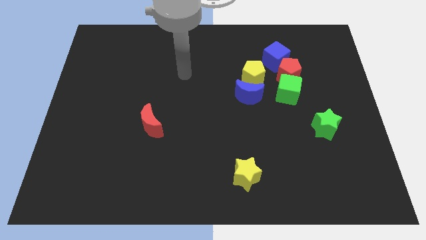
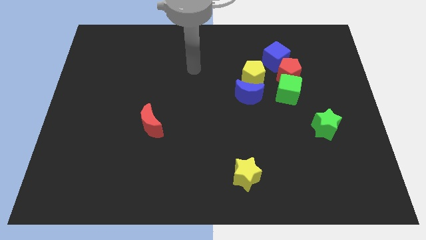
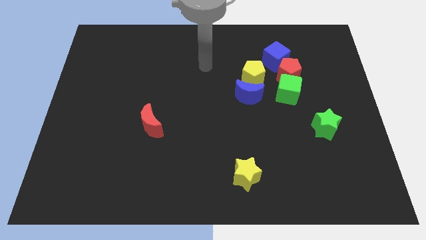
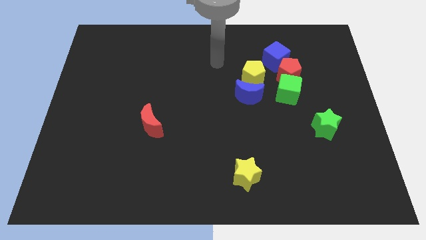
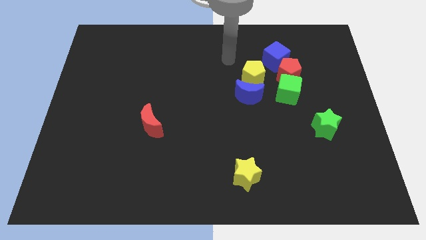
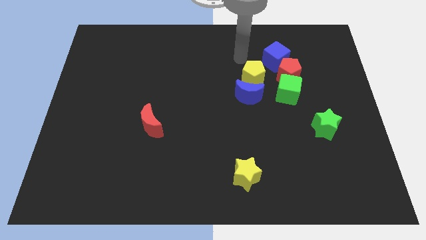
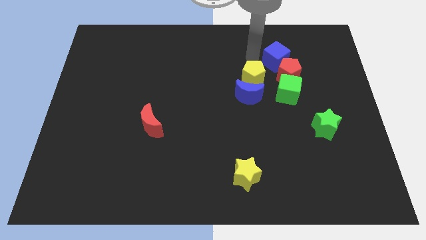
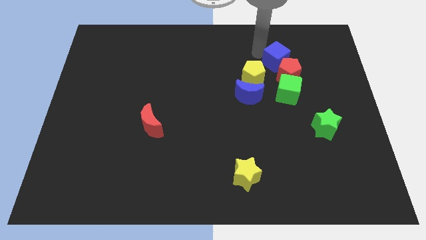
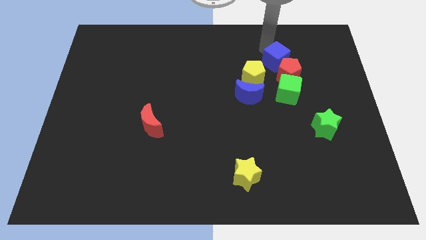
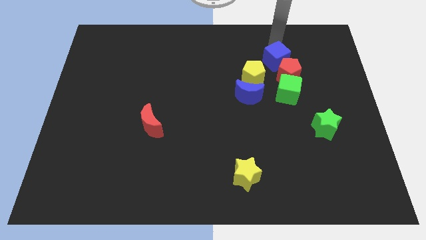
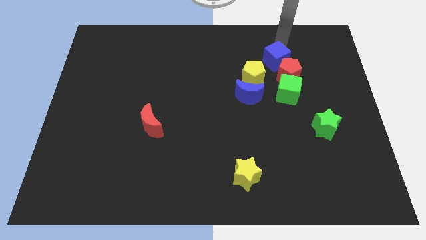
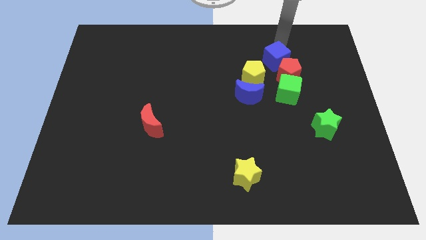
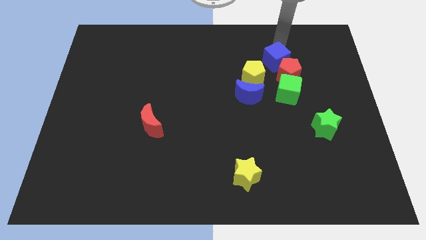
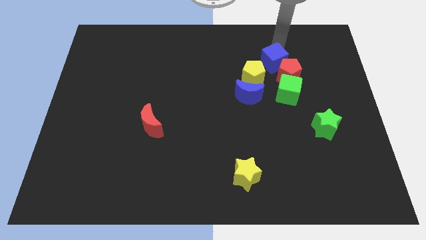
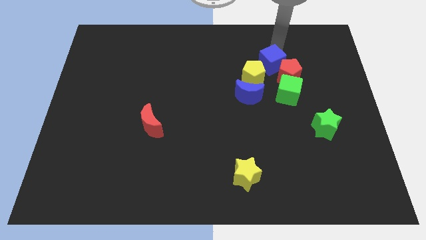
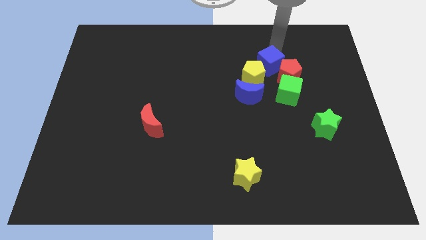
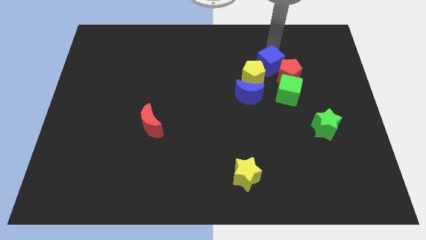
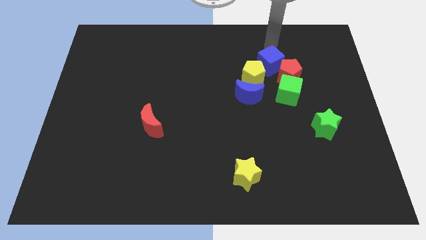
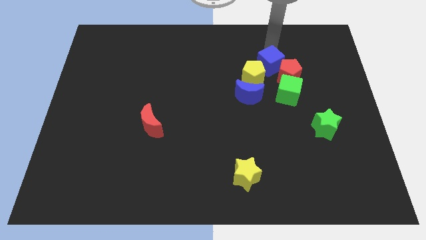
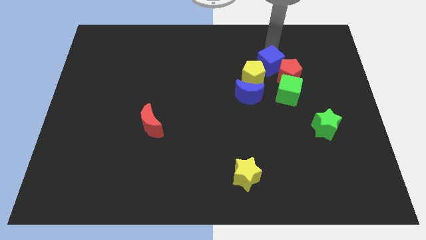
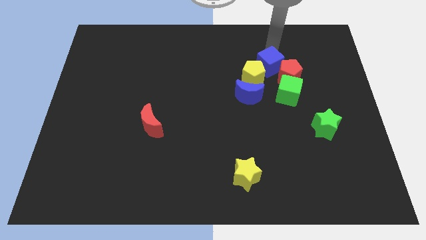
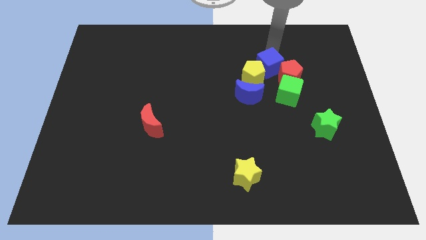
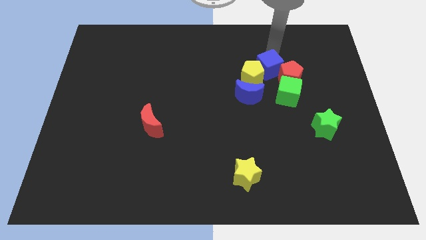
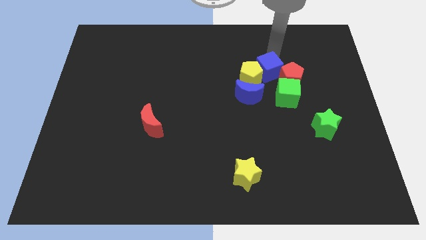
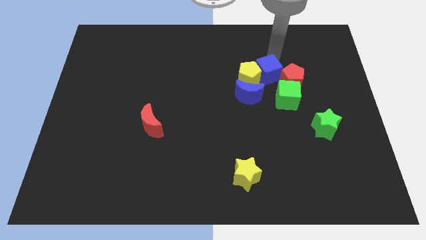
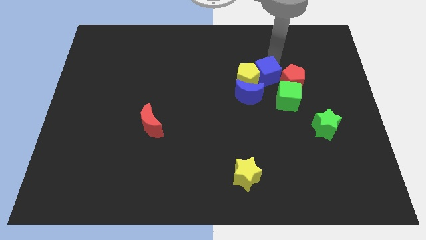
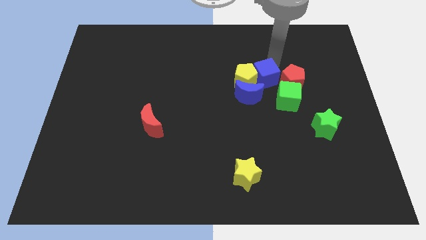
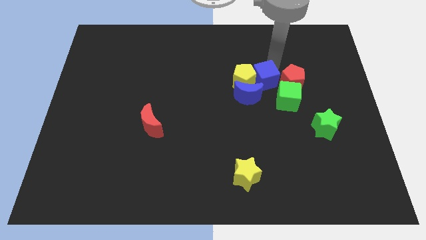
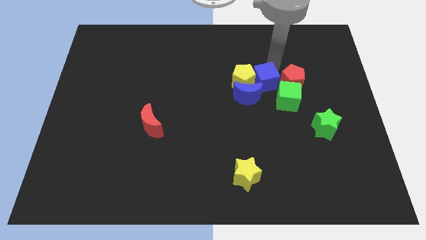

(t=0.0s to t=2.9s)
slide the blue cube somewhat down

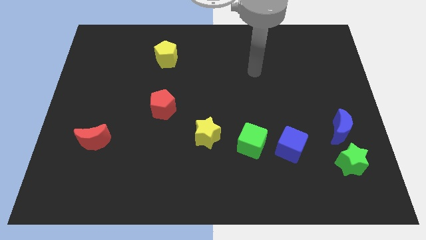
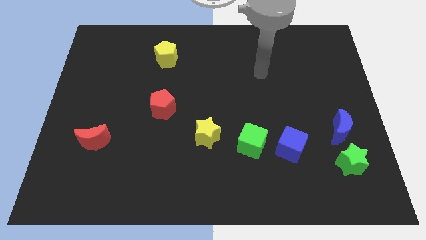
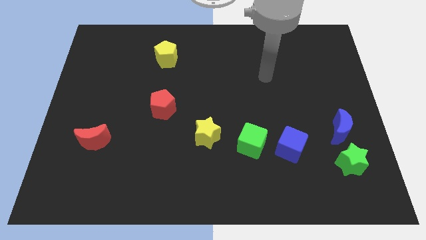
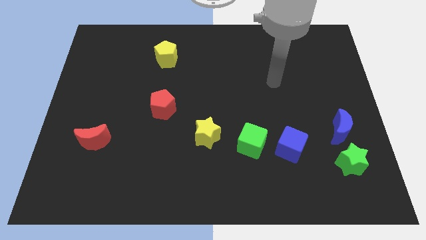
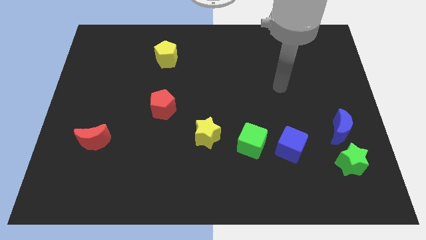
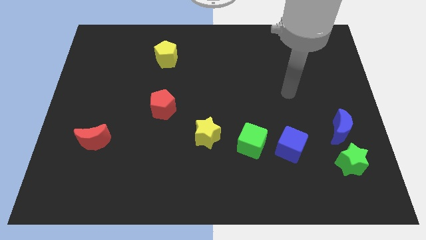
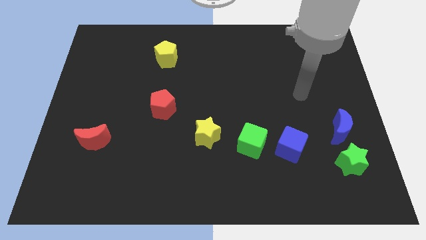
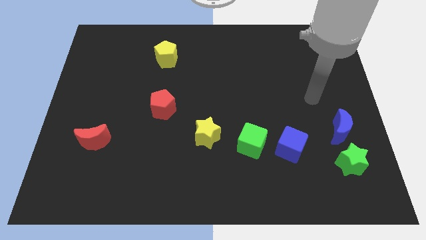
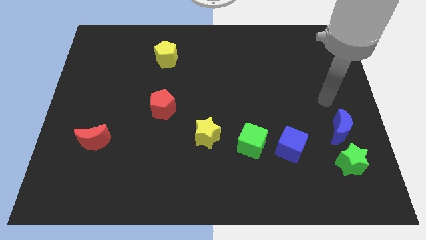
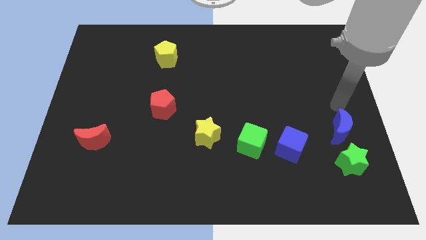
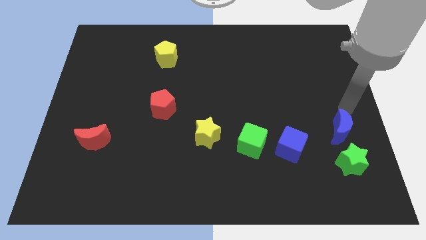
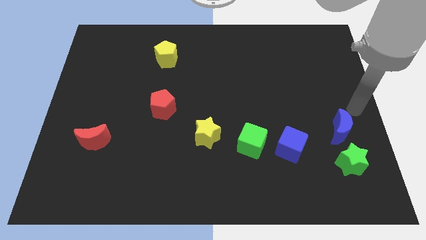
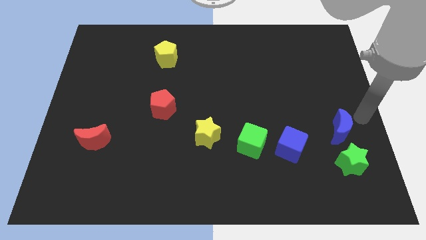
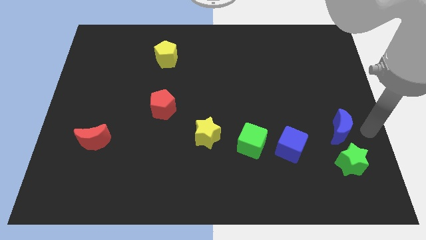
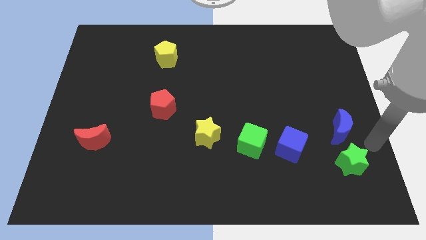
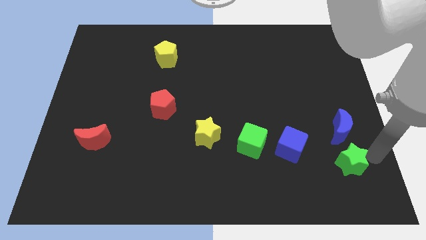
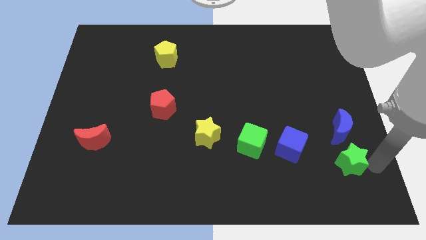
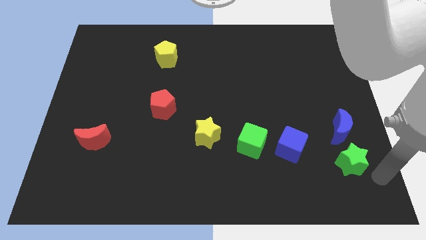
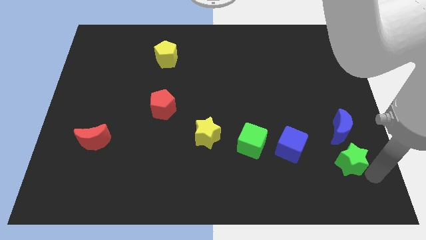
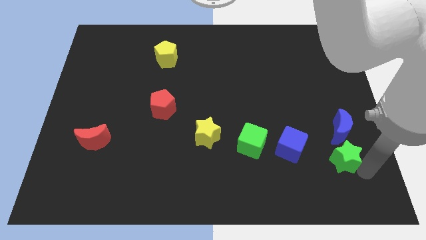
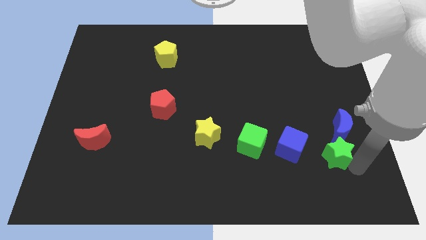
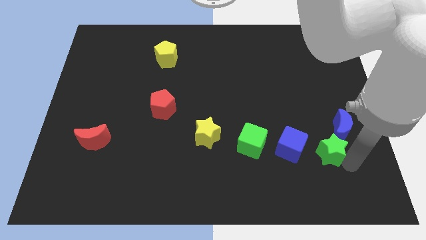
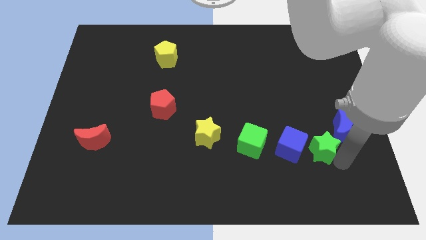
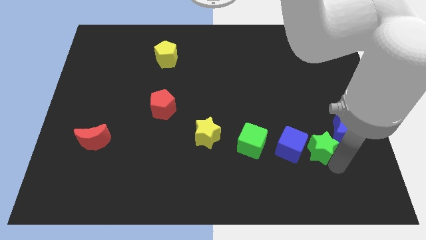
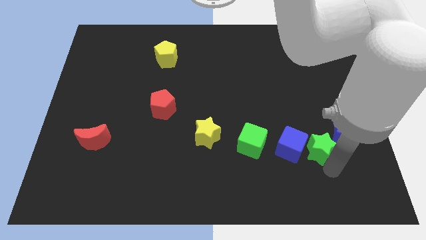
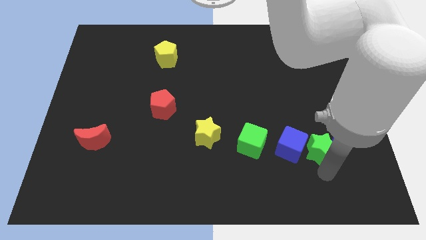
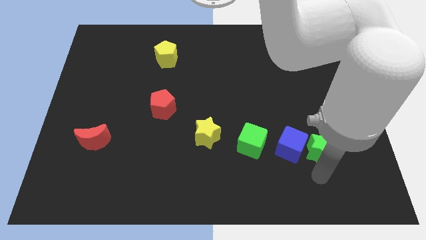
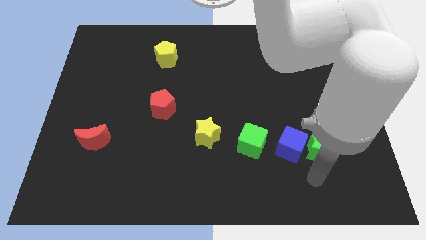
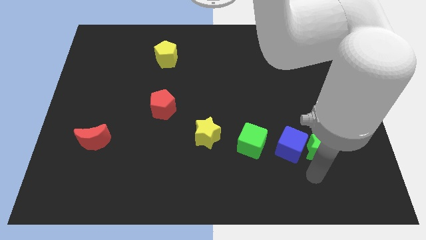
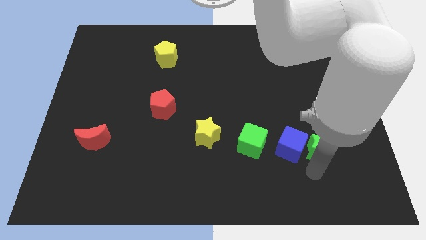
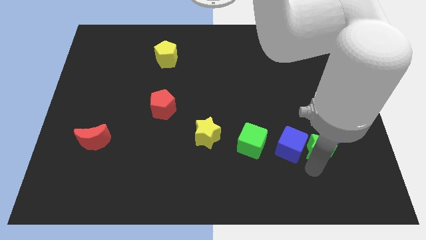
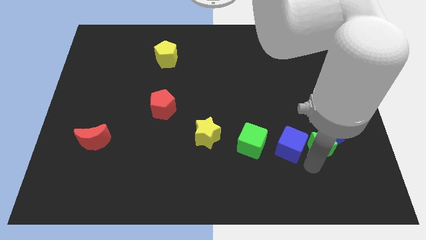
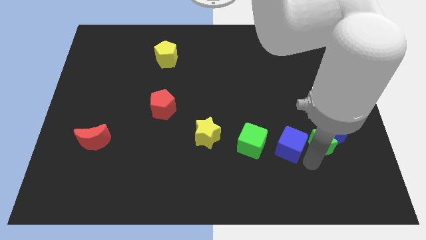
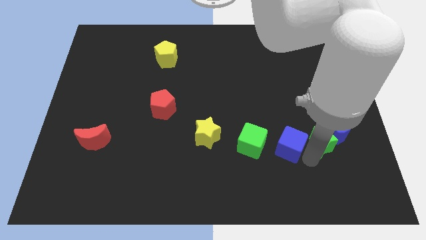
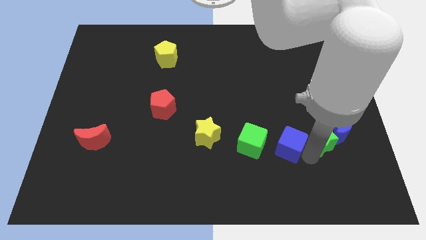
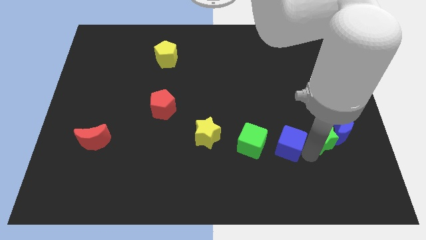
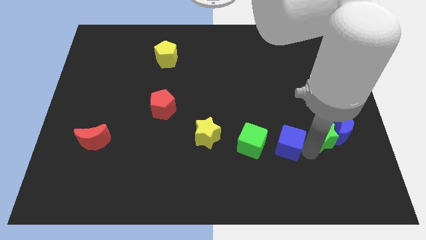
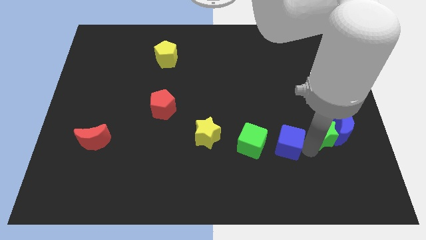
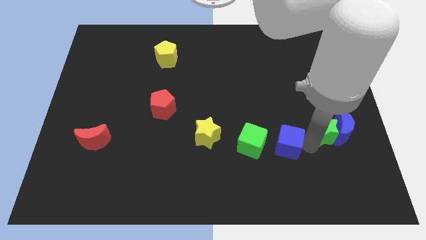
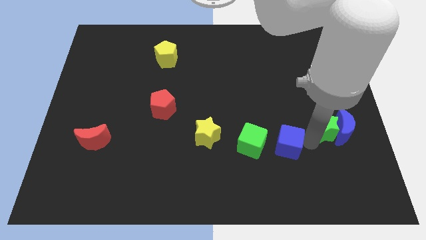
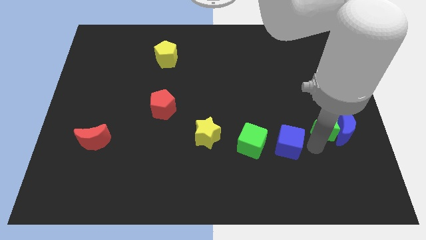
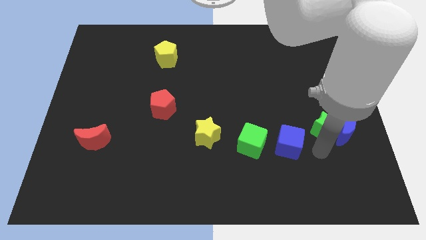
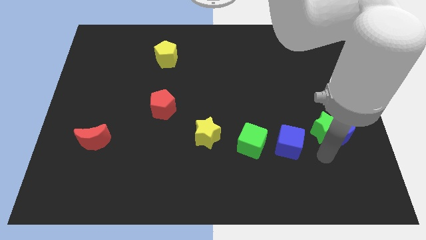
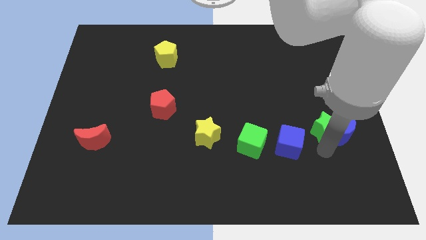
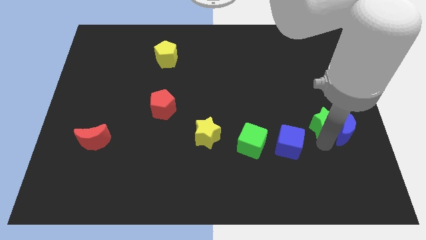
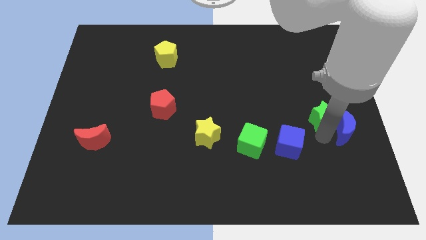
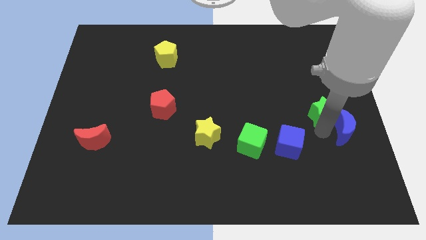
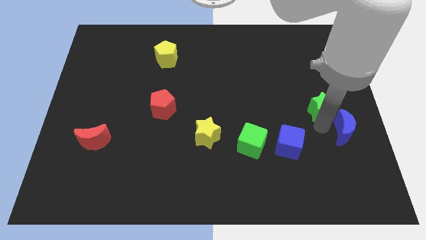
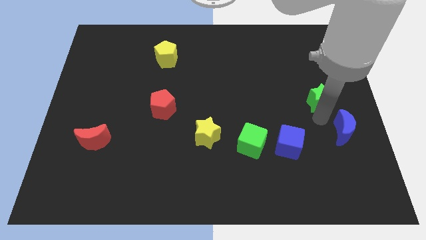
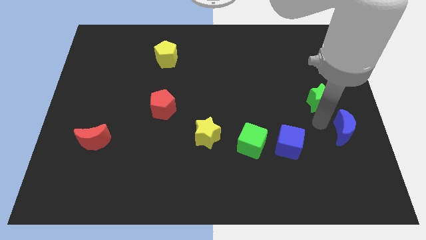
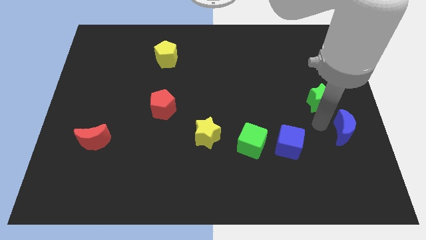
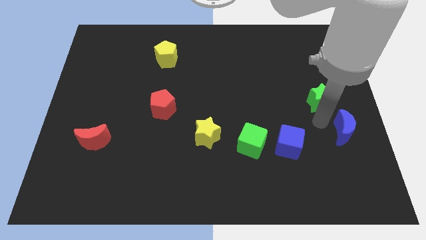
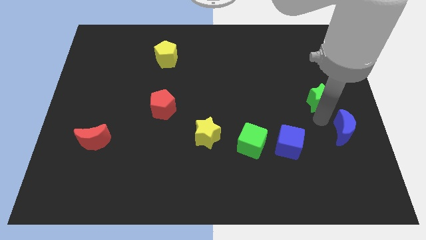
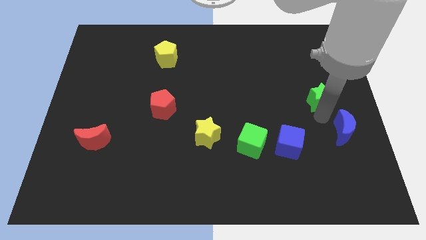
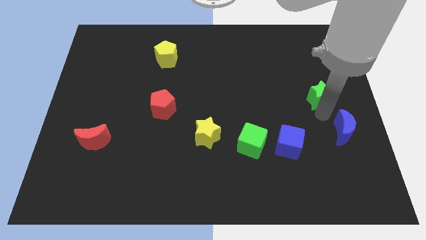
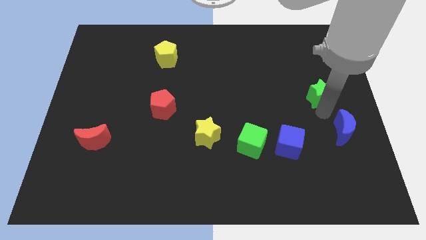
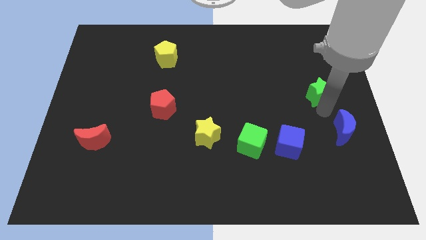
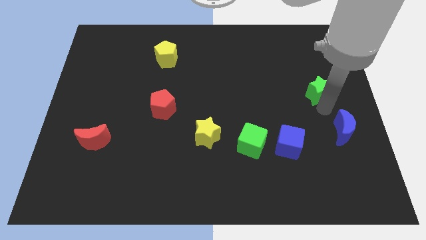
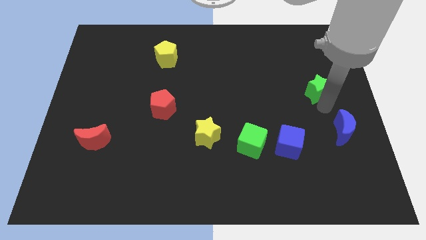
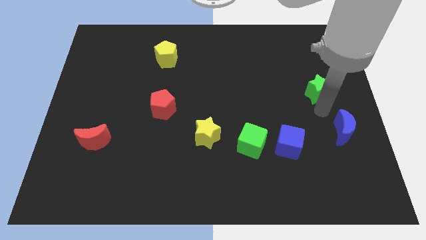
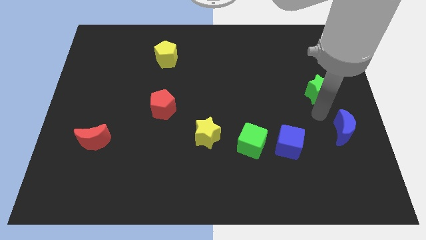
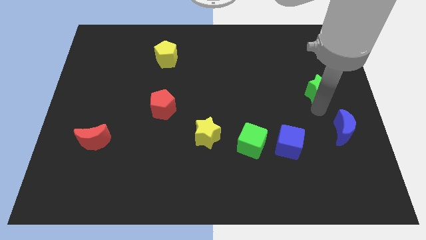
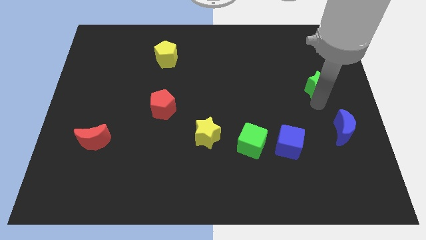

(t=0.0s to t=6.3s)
move the green star up
